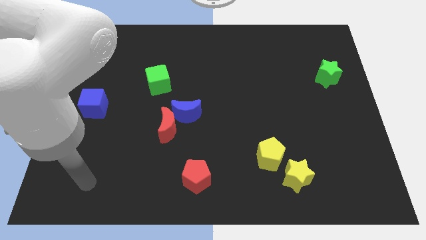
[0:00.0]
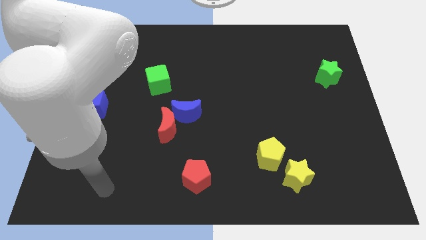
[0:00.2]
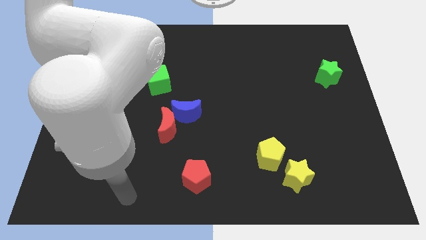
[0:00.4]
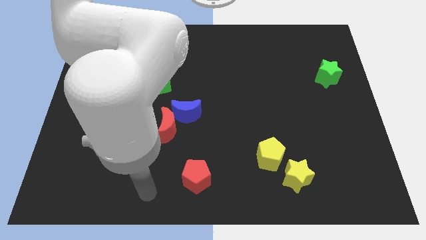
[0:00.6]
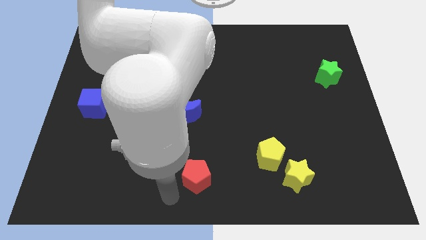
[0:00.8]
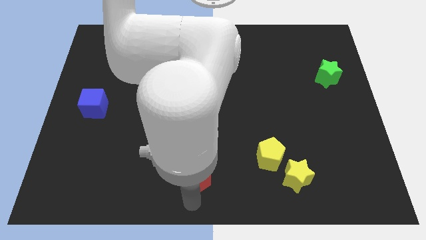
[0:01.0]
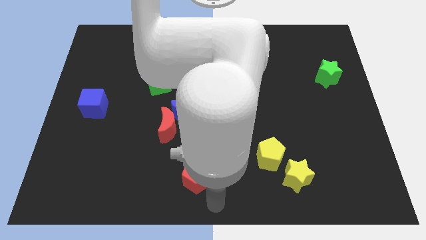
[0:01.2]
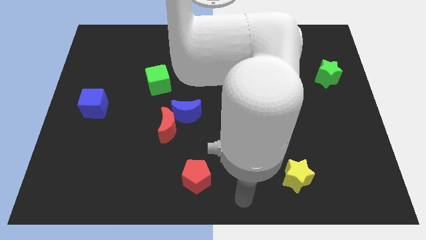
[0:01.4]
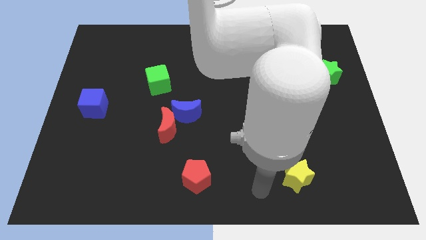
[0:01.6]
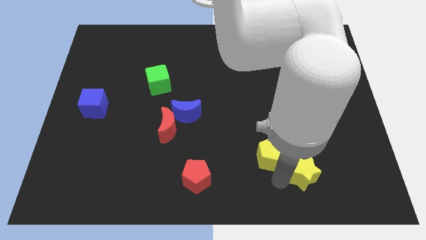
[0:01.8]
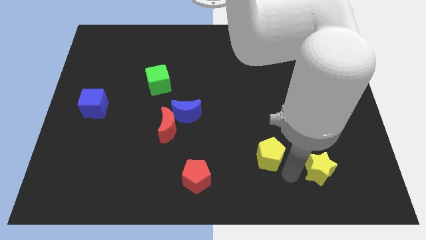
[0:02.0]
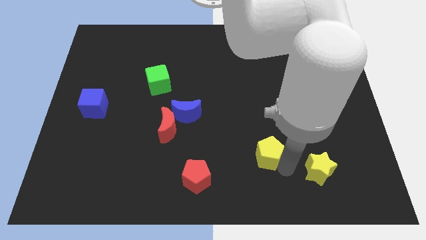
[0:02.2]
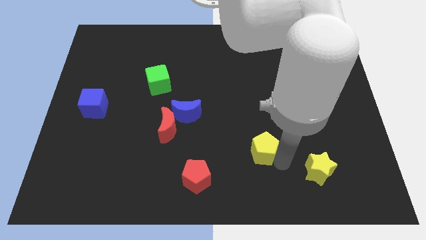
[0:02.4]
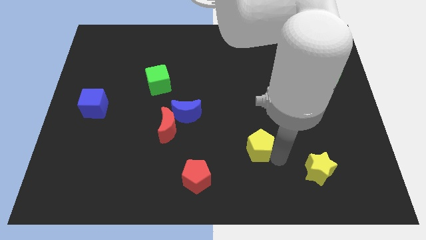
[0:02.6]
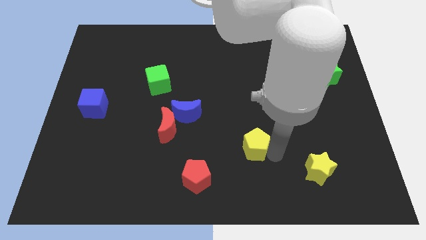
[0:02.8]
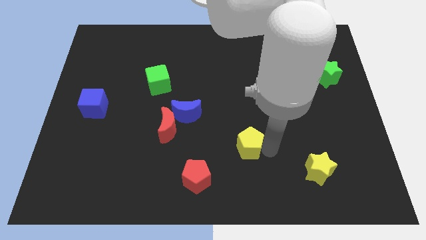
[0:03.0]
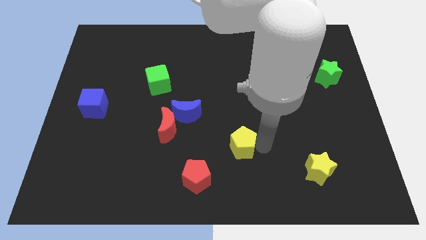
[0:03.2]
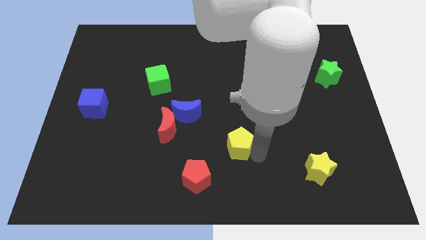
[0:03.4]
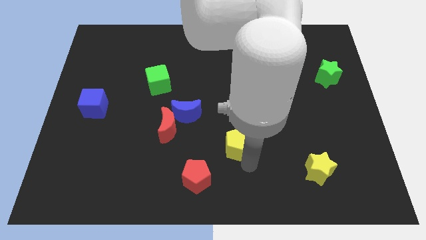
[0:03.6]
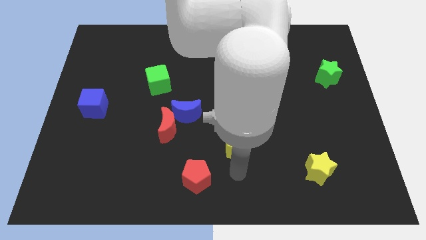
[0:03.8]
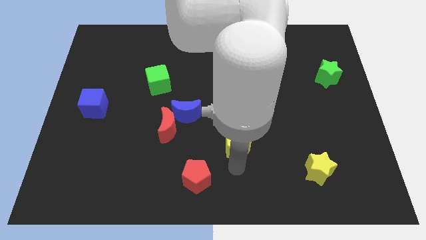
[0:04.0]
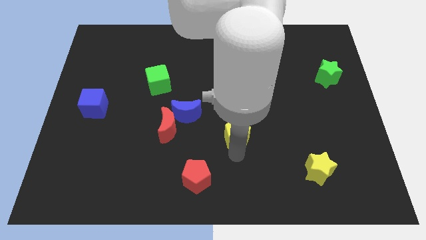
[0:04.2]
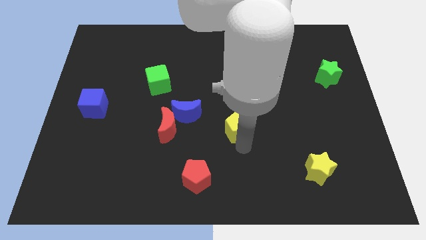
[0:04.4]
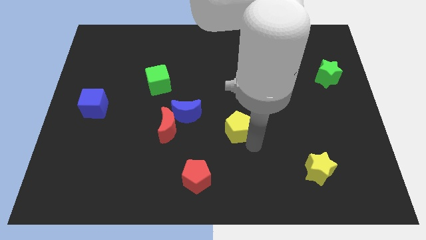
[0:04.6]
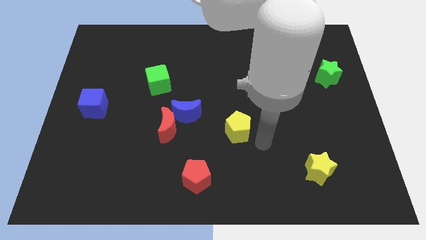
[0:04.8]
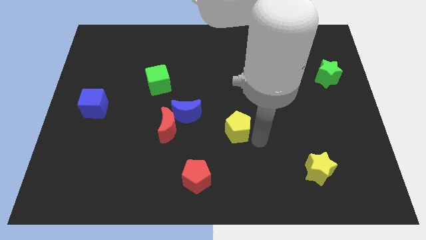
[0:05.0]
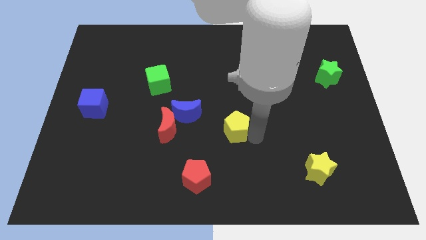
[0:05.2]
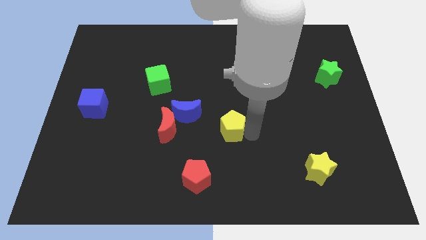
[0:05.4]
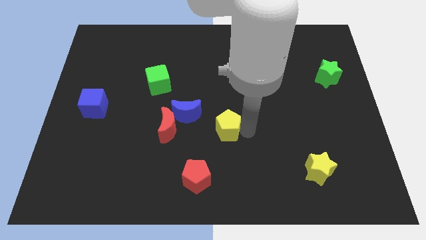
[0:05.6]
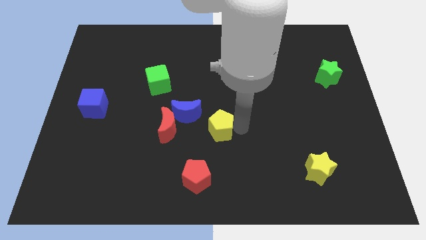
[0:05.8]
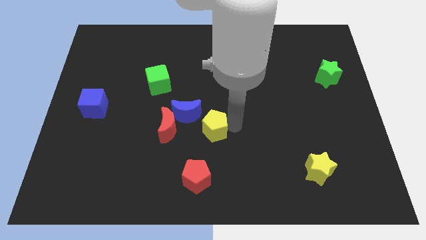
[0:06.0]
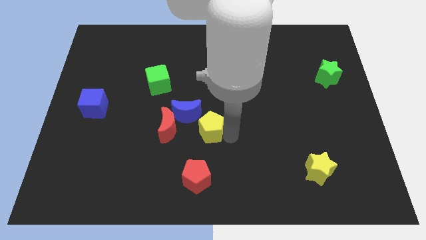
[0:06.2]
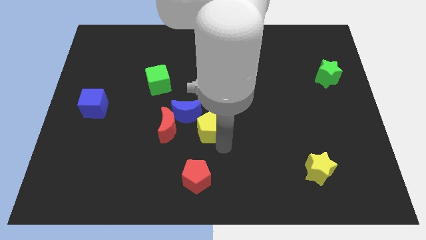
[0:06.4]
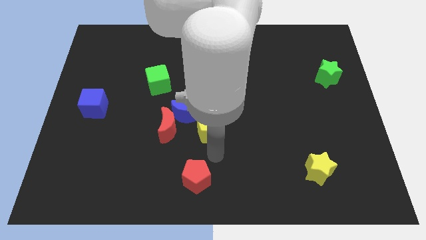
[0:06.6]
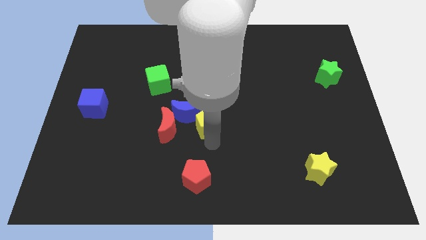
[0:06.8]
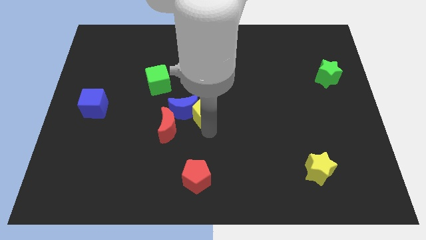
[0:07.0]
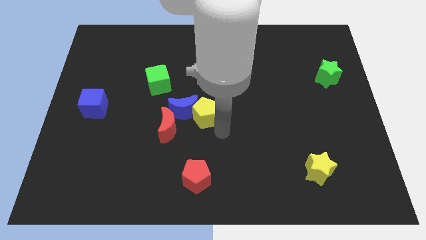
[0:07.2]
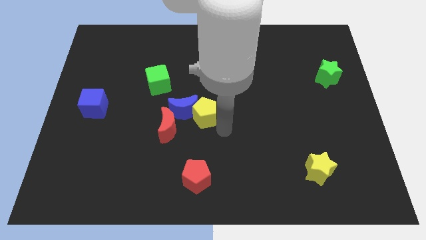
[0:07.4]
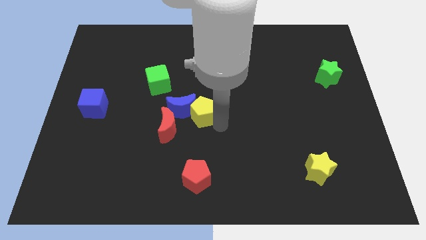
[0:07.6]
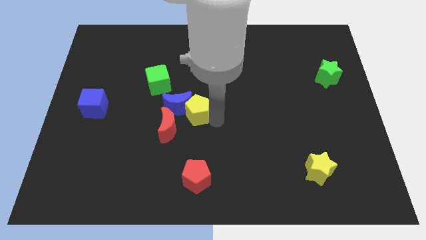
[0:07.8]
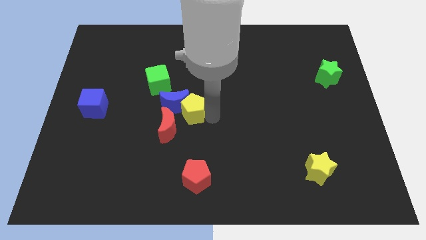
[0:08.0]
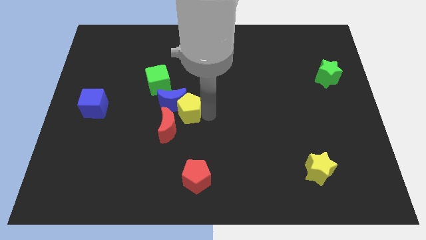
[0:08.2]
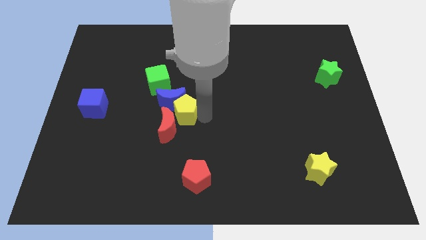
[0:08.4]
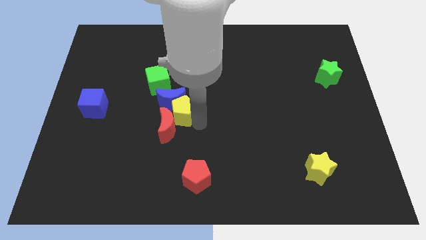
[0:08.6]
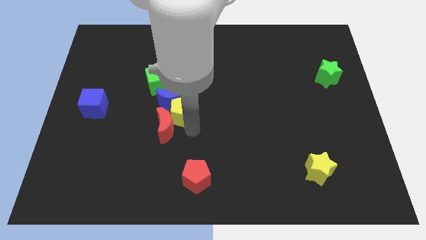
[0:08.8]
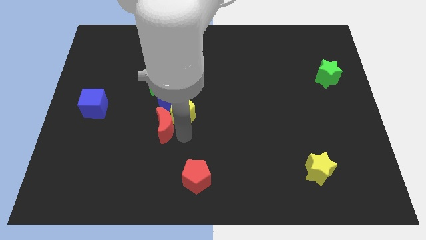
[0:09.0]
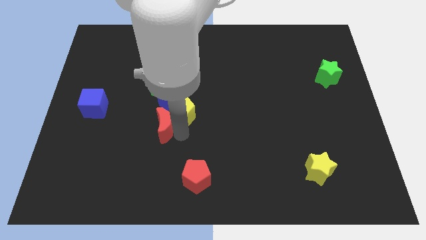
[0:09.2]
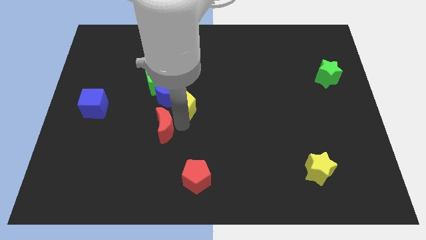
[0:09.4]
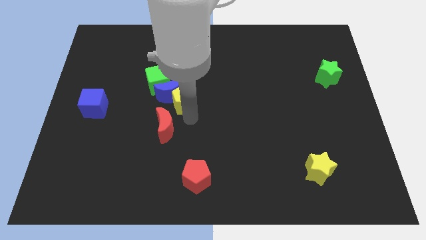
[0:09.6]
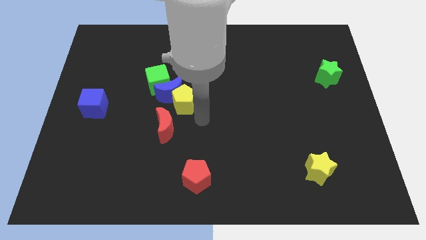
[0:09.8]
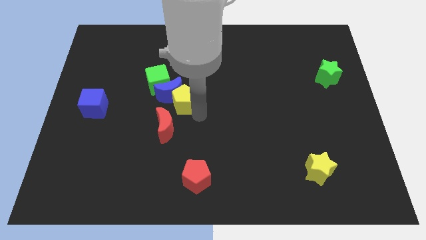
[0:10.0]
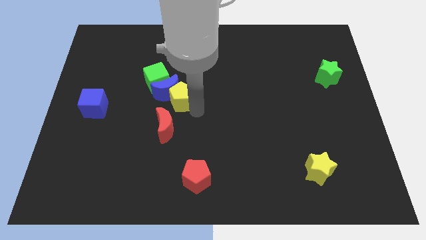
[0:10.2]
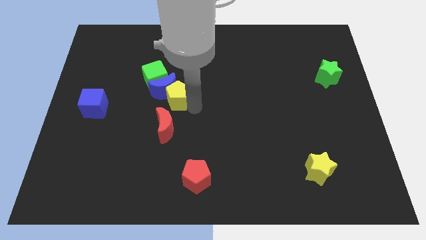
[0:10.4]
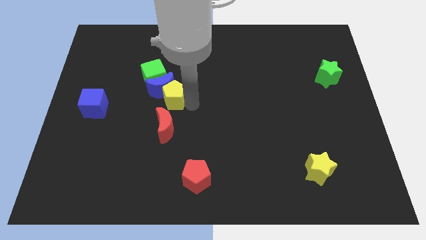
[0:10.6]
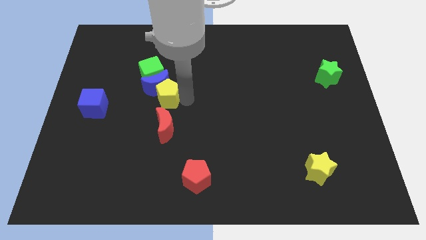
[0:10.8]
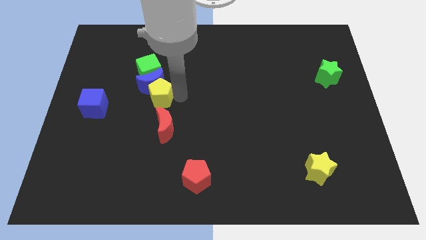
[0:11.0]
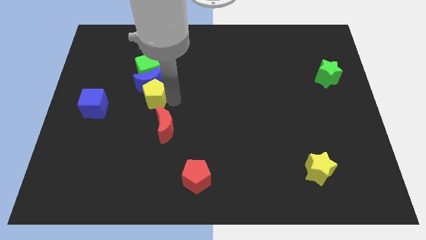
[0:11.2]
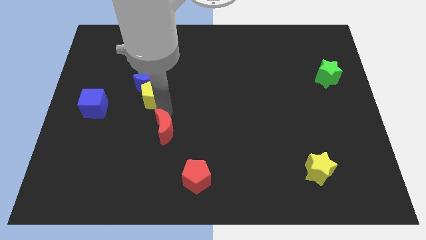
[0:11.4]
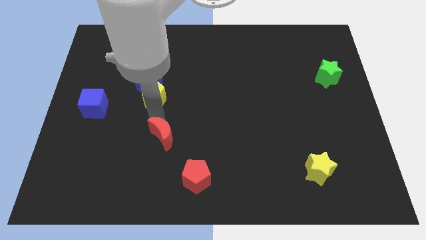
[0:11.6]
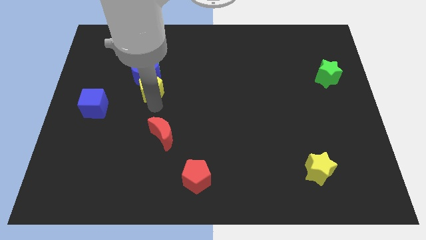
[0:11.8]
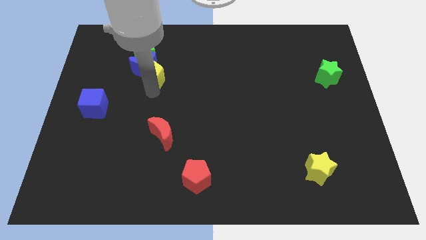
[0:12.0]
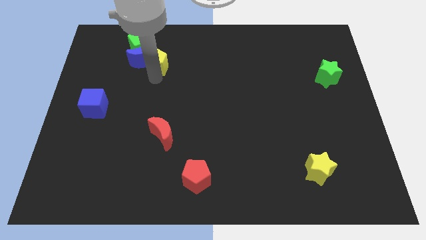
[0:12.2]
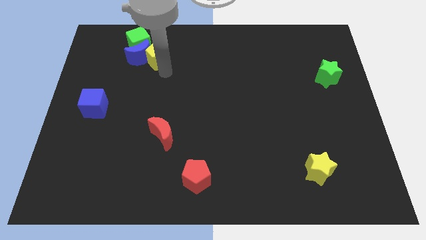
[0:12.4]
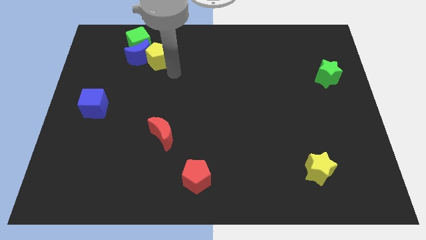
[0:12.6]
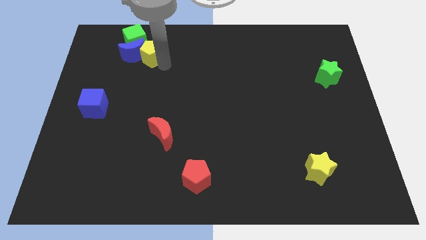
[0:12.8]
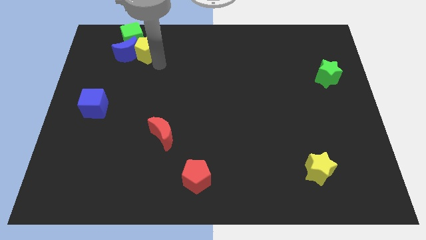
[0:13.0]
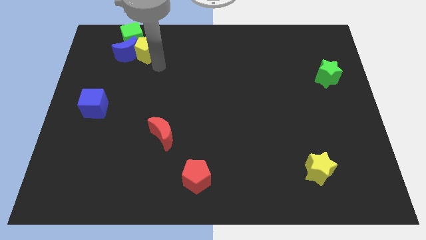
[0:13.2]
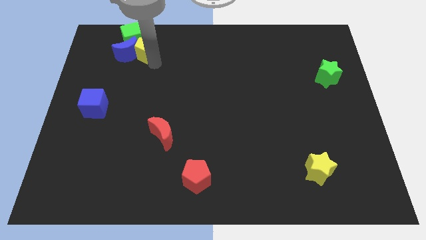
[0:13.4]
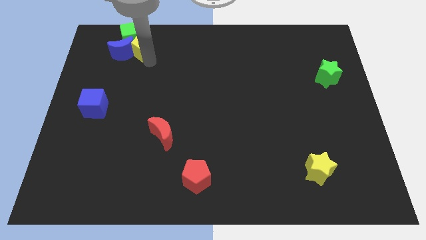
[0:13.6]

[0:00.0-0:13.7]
put the yellow pentagon to the green cube

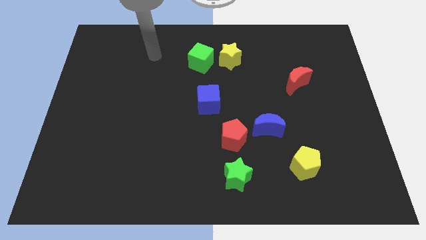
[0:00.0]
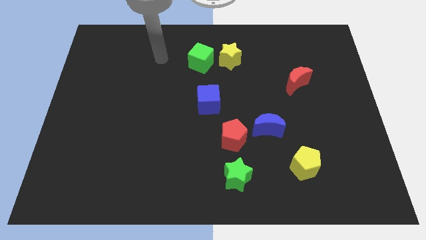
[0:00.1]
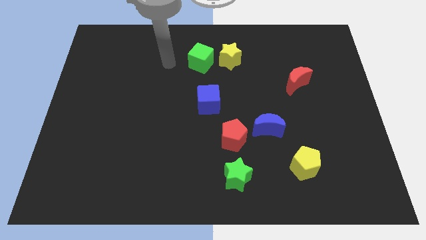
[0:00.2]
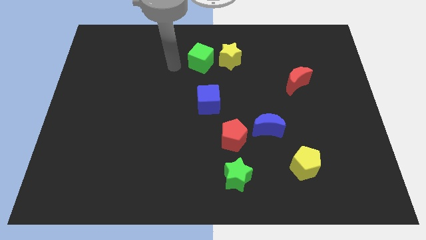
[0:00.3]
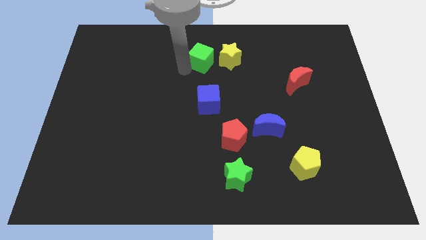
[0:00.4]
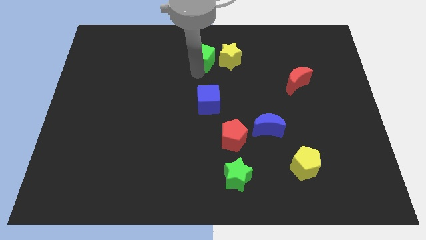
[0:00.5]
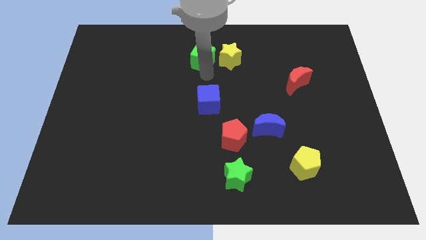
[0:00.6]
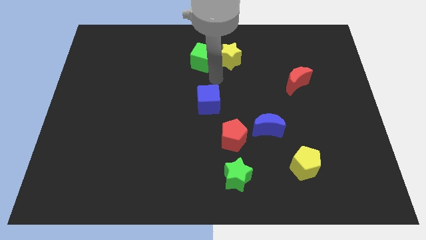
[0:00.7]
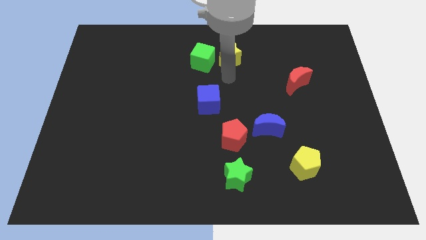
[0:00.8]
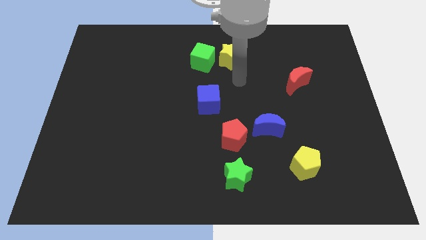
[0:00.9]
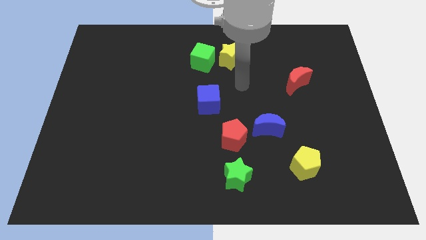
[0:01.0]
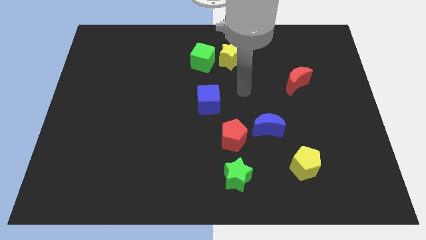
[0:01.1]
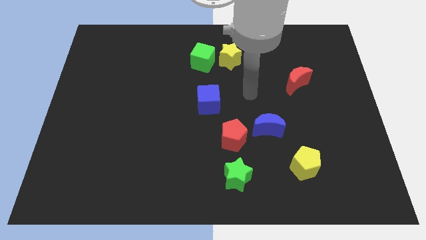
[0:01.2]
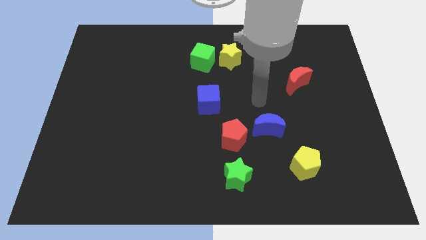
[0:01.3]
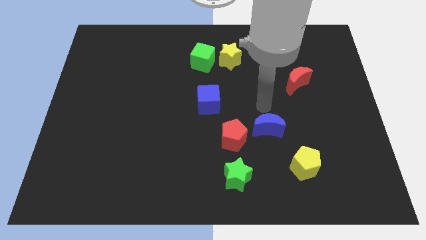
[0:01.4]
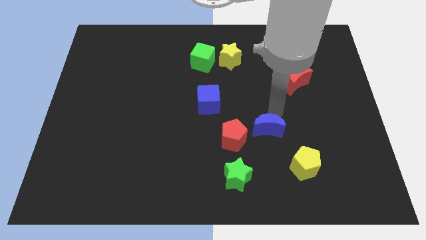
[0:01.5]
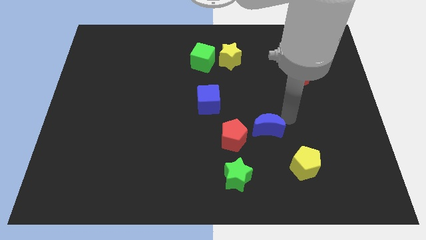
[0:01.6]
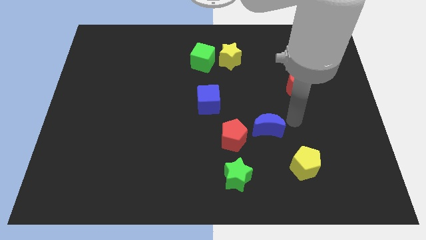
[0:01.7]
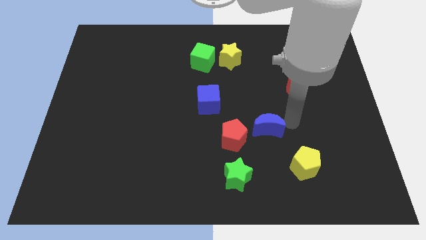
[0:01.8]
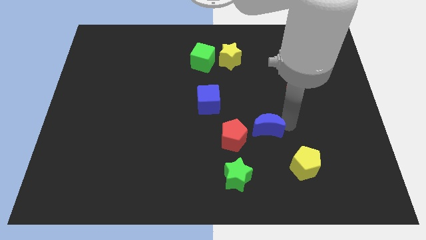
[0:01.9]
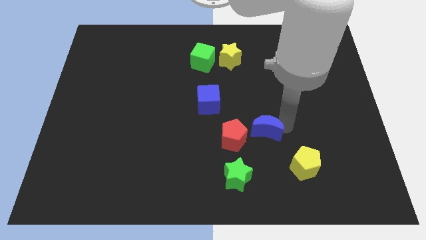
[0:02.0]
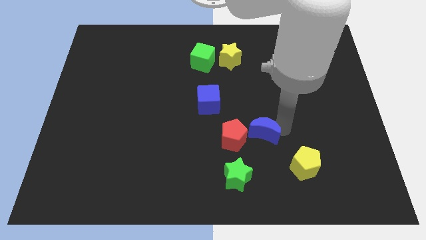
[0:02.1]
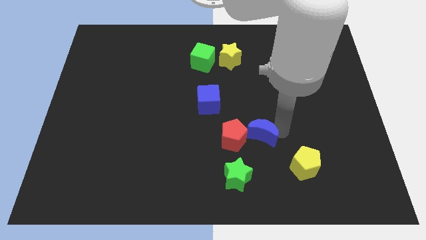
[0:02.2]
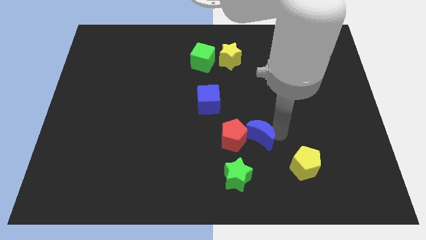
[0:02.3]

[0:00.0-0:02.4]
slide the blue moon to the red pentagon
